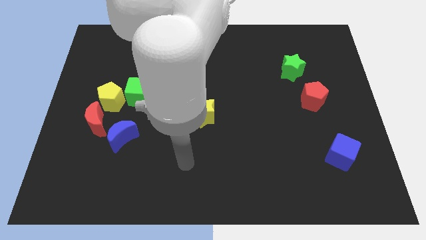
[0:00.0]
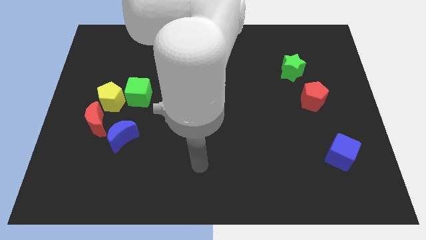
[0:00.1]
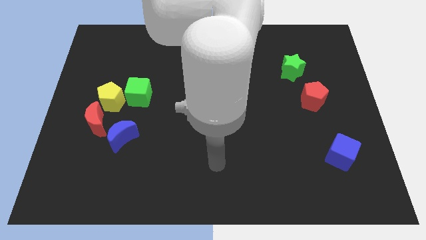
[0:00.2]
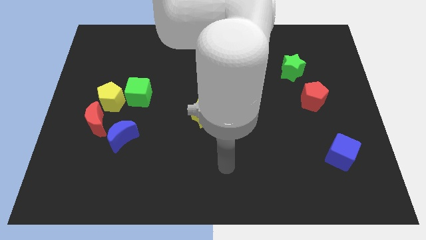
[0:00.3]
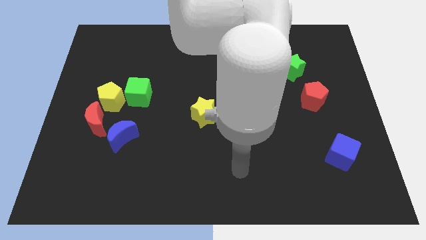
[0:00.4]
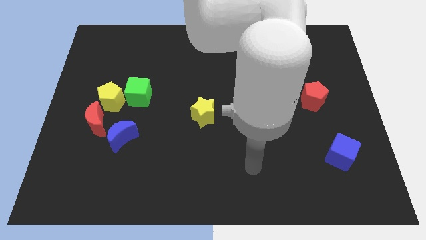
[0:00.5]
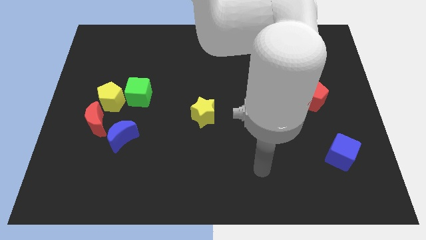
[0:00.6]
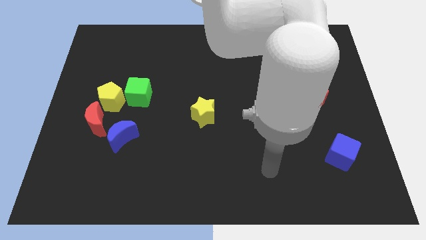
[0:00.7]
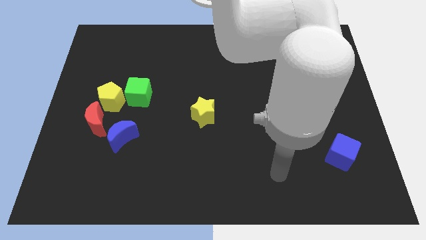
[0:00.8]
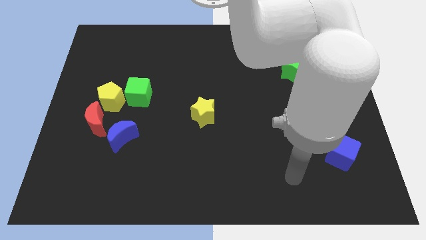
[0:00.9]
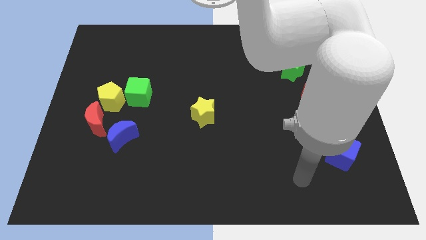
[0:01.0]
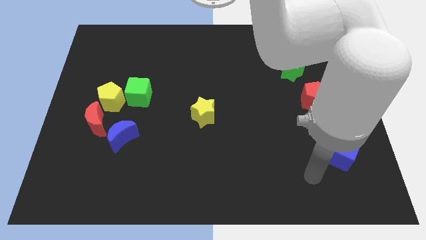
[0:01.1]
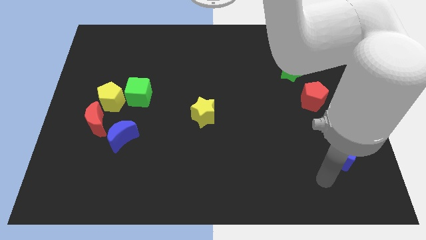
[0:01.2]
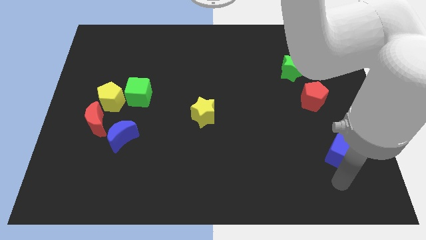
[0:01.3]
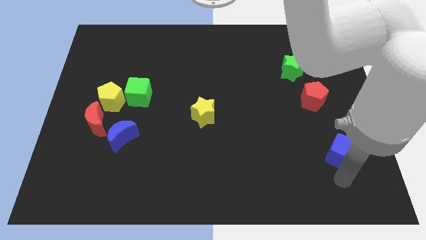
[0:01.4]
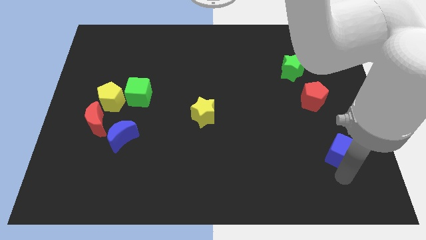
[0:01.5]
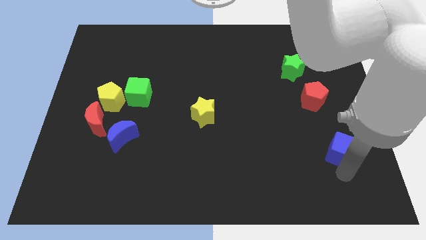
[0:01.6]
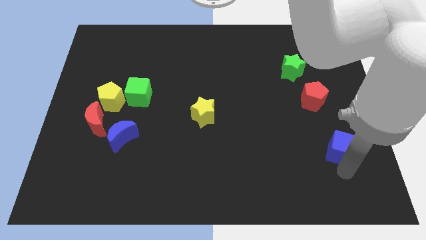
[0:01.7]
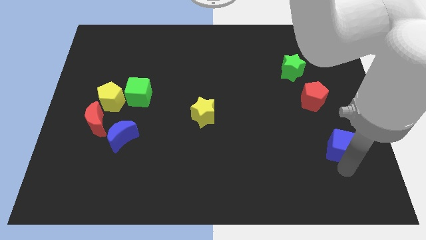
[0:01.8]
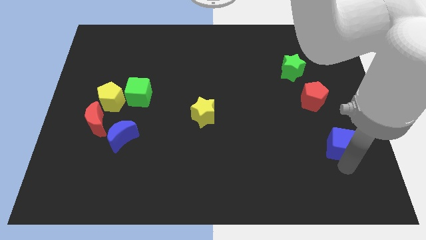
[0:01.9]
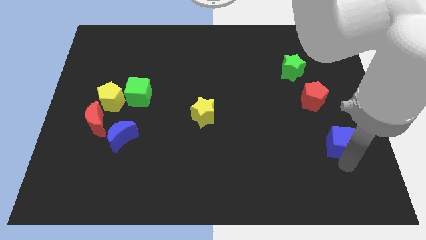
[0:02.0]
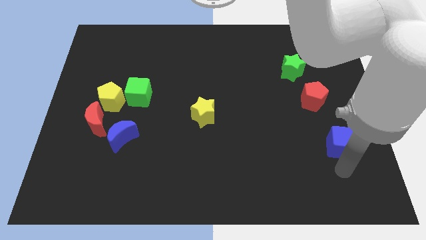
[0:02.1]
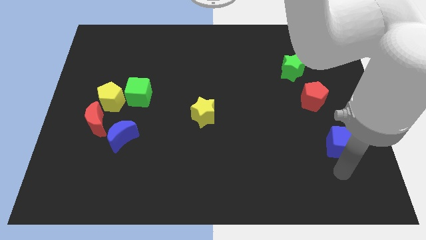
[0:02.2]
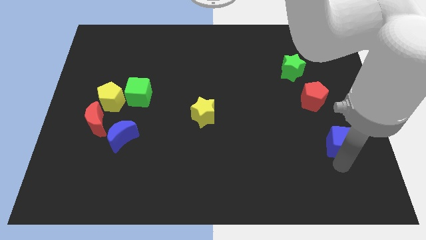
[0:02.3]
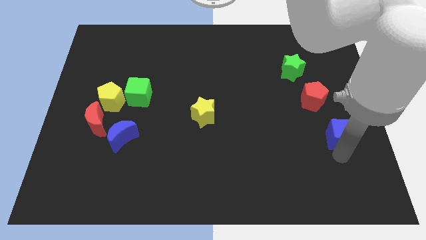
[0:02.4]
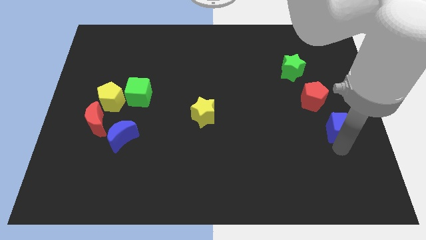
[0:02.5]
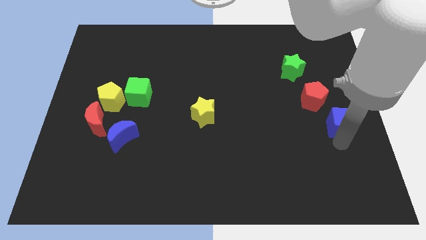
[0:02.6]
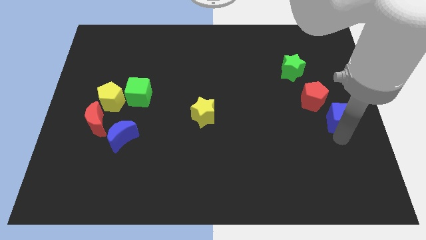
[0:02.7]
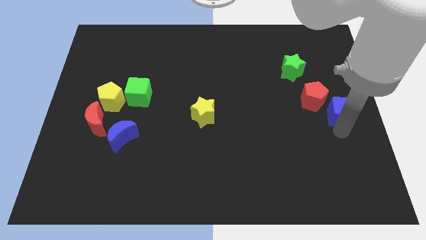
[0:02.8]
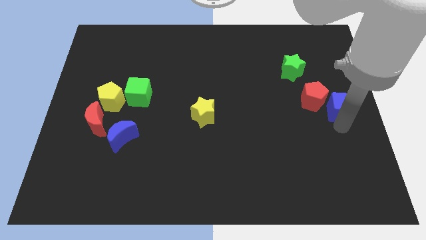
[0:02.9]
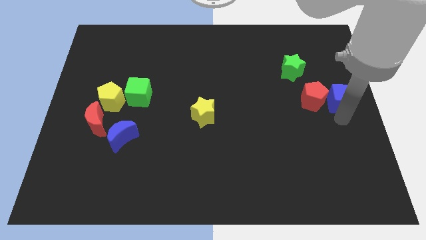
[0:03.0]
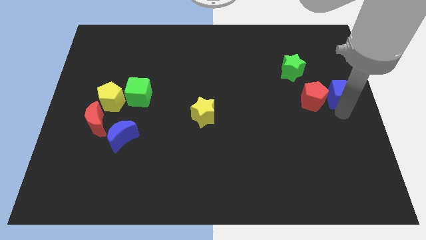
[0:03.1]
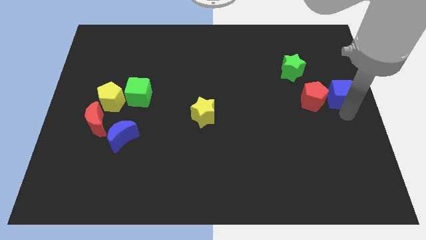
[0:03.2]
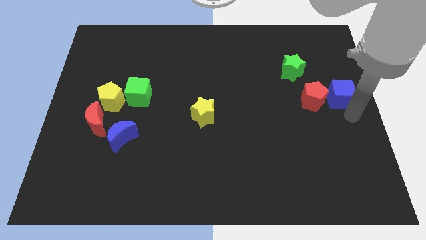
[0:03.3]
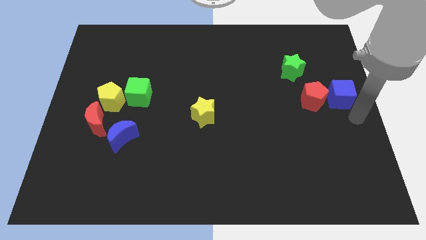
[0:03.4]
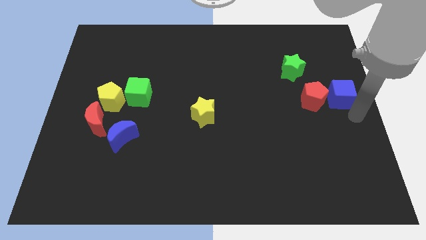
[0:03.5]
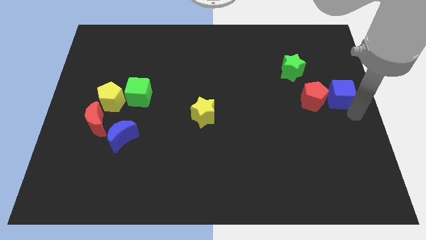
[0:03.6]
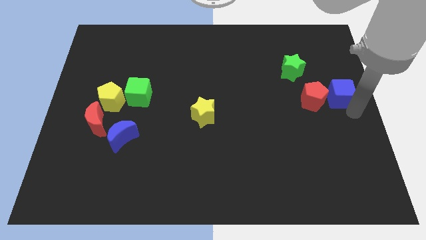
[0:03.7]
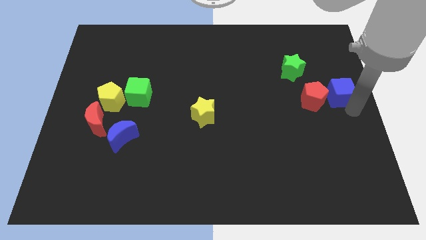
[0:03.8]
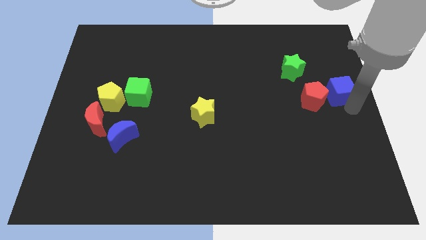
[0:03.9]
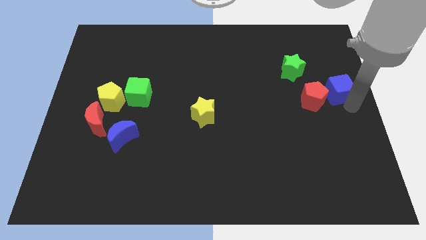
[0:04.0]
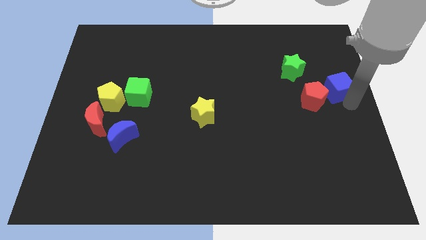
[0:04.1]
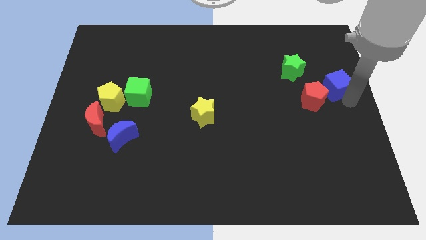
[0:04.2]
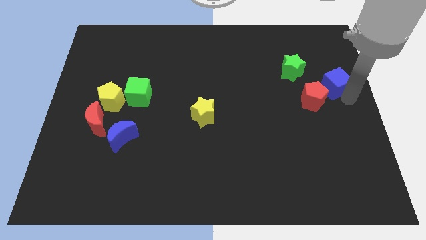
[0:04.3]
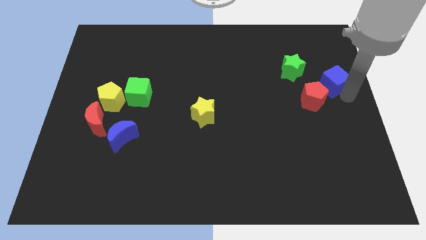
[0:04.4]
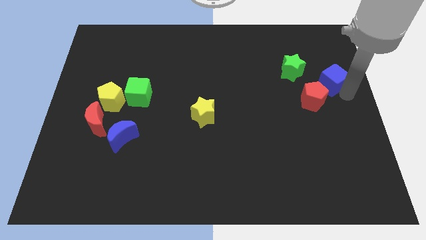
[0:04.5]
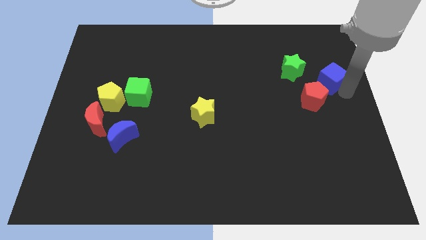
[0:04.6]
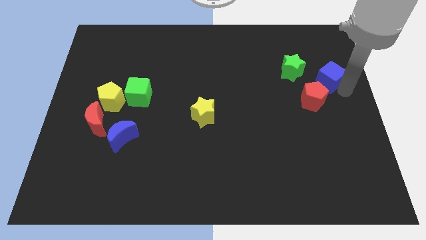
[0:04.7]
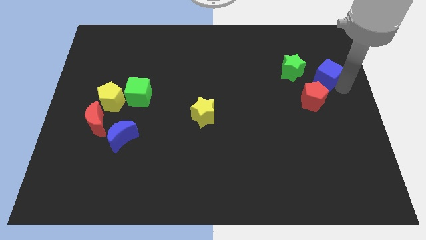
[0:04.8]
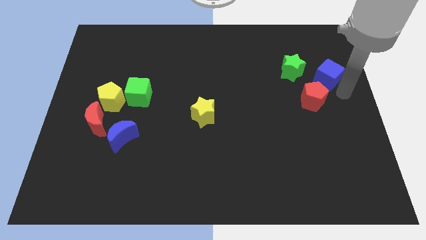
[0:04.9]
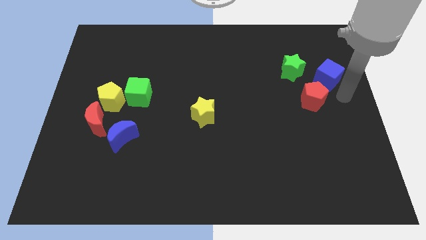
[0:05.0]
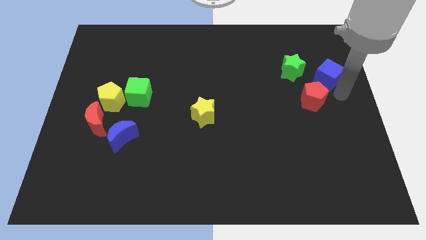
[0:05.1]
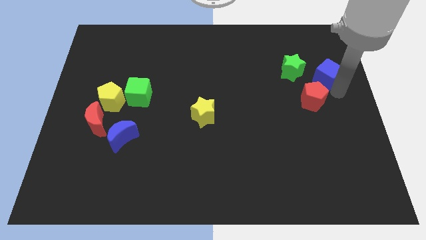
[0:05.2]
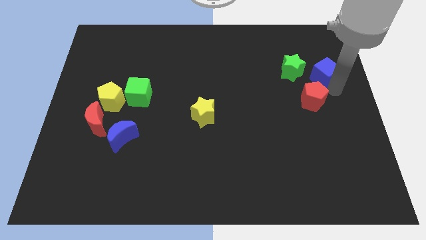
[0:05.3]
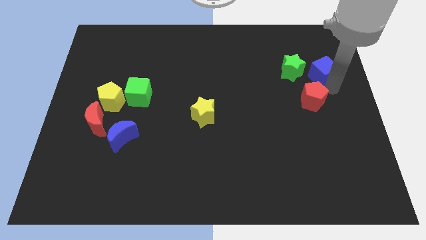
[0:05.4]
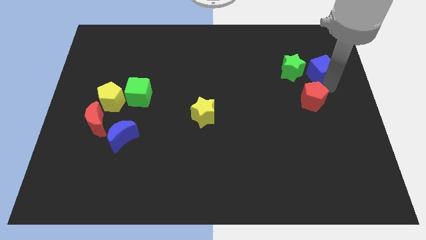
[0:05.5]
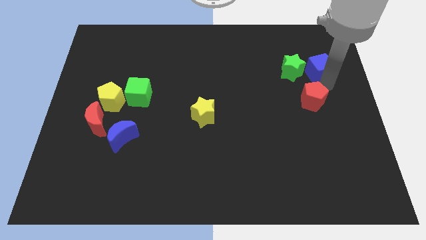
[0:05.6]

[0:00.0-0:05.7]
put the blue cube to the top right side of the green star

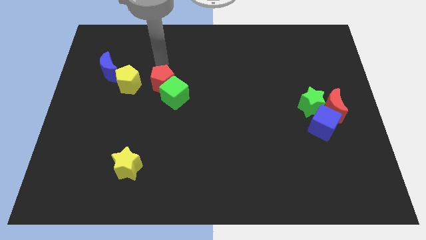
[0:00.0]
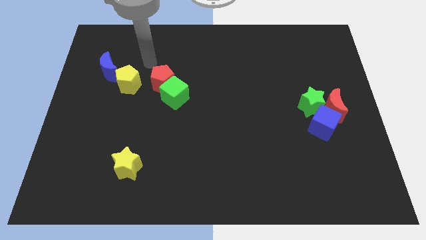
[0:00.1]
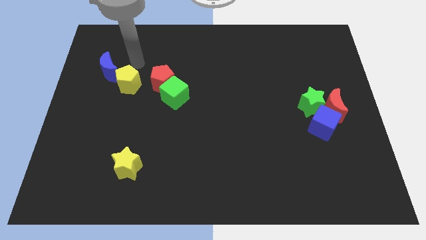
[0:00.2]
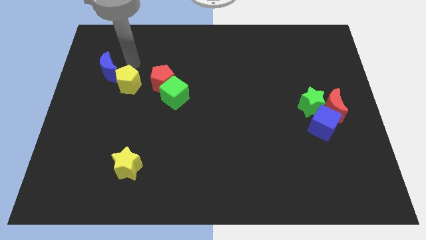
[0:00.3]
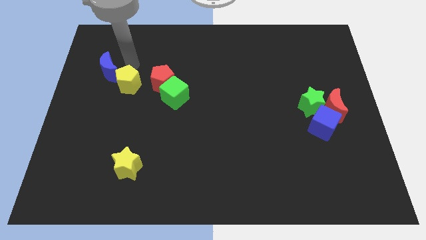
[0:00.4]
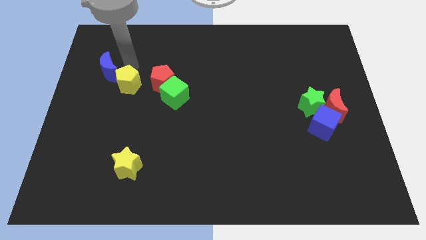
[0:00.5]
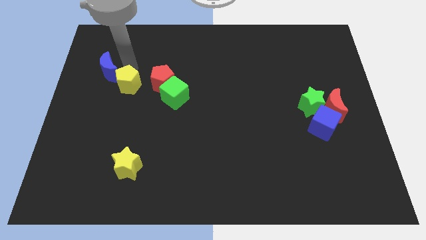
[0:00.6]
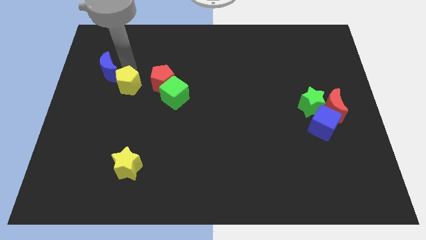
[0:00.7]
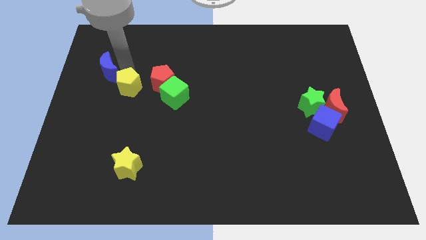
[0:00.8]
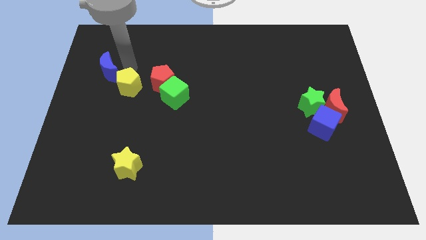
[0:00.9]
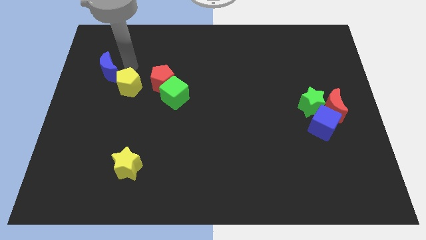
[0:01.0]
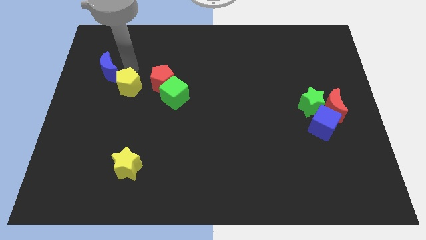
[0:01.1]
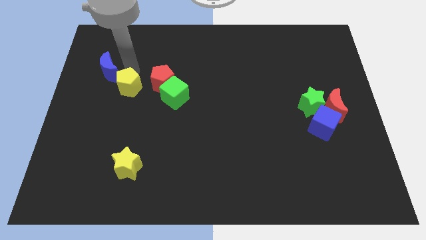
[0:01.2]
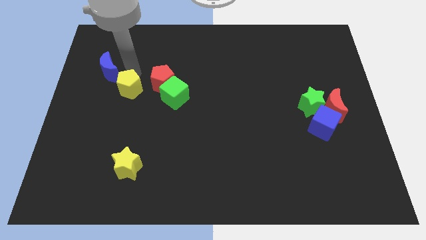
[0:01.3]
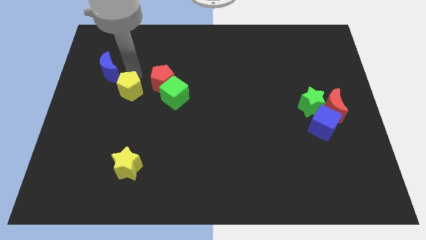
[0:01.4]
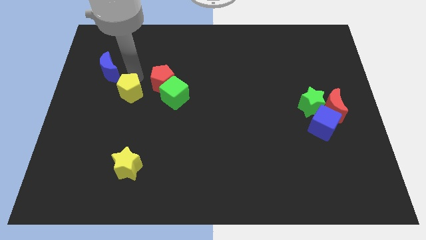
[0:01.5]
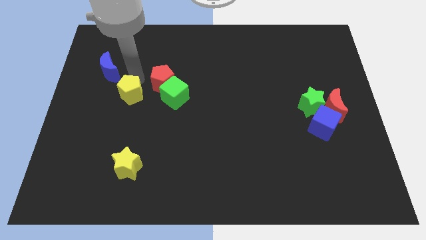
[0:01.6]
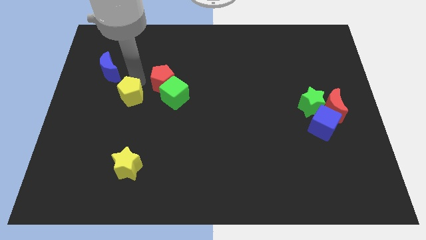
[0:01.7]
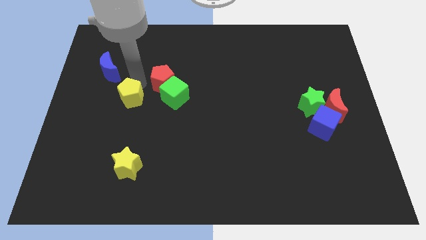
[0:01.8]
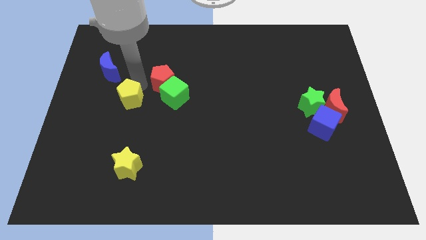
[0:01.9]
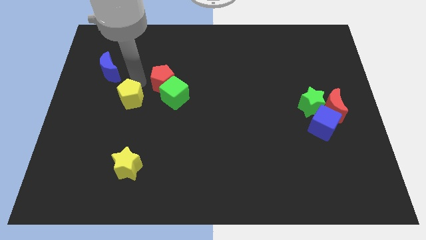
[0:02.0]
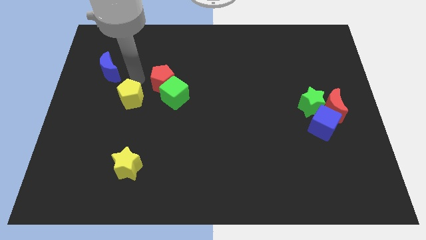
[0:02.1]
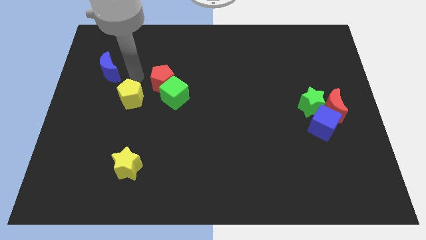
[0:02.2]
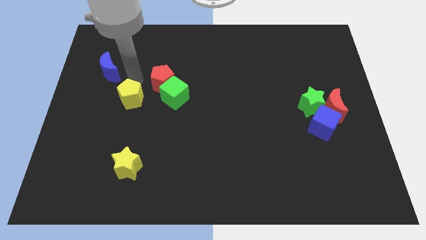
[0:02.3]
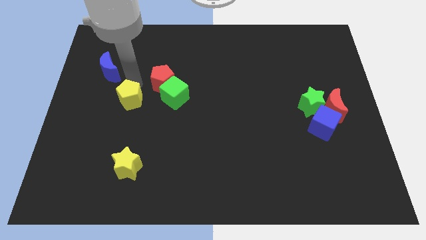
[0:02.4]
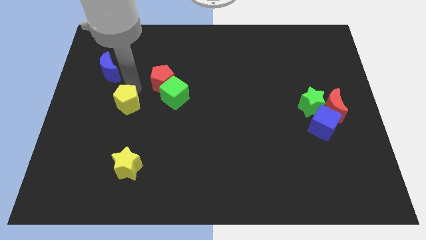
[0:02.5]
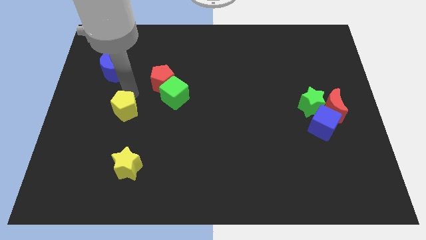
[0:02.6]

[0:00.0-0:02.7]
push the yellow pentagon above the yellow star
